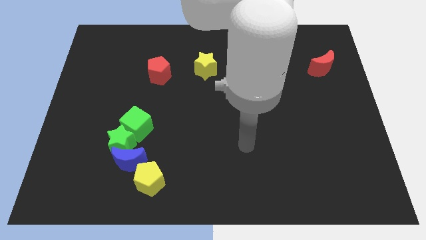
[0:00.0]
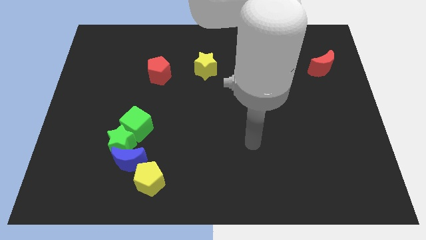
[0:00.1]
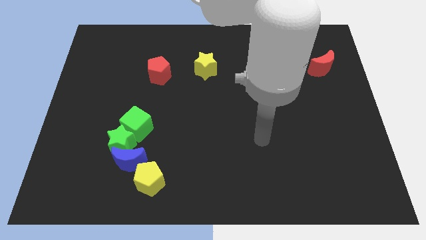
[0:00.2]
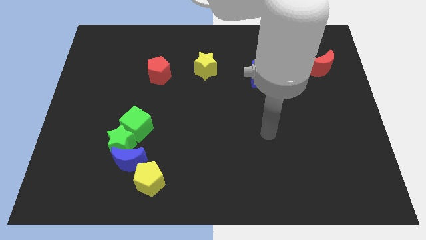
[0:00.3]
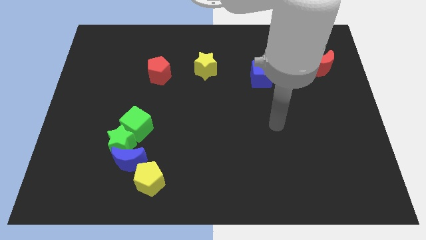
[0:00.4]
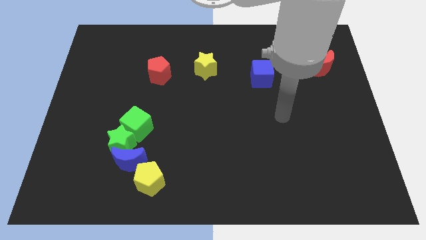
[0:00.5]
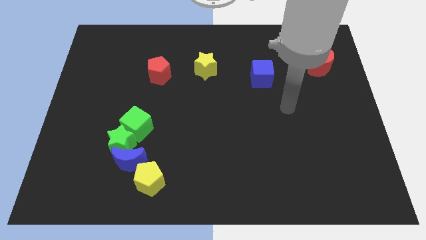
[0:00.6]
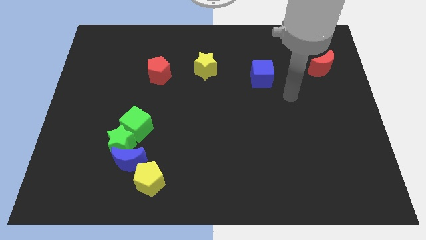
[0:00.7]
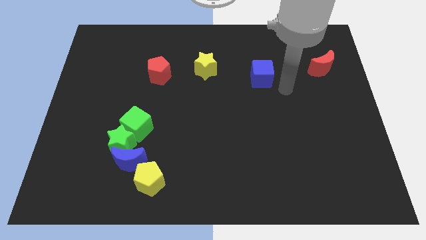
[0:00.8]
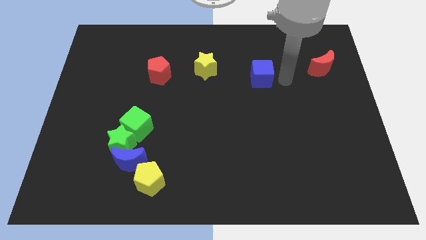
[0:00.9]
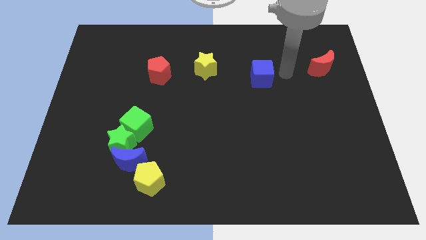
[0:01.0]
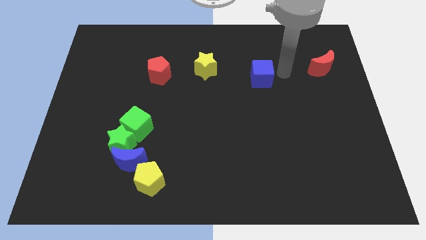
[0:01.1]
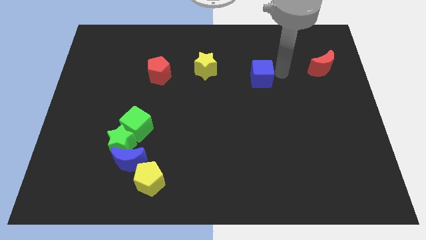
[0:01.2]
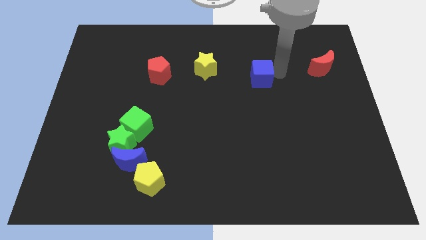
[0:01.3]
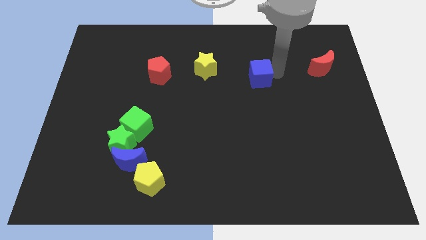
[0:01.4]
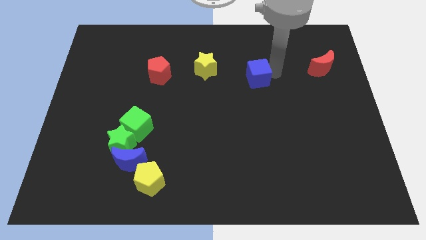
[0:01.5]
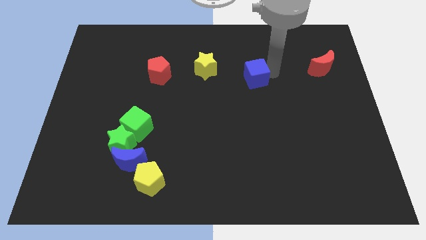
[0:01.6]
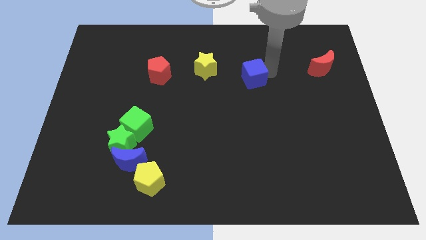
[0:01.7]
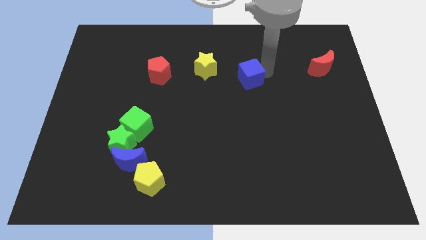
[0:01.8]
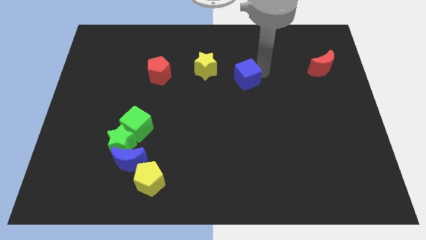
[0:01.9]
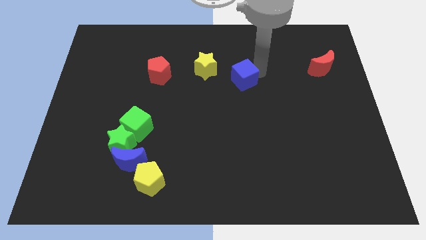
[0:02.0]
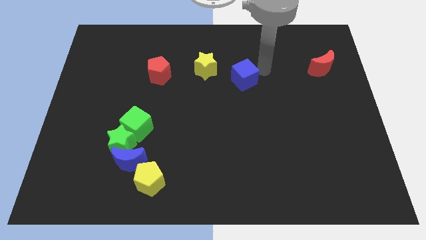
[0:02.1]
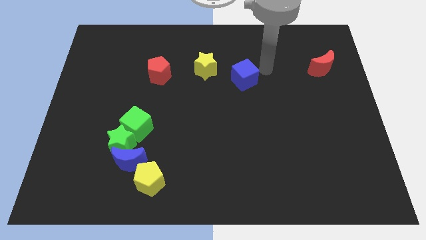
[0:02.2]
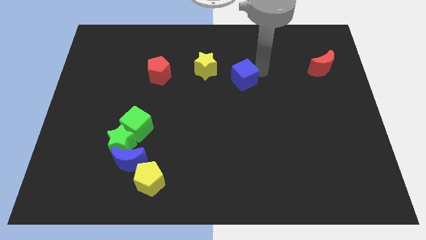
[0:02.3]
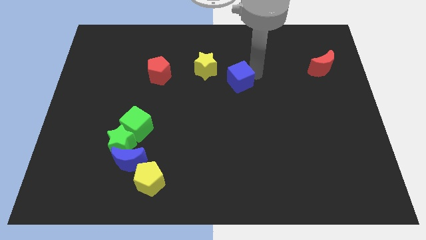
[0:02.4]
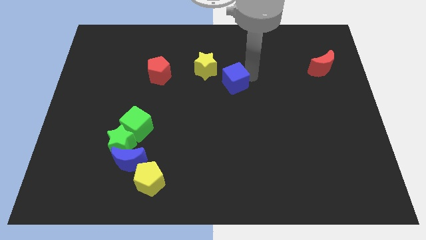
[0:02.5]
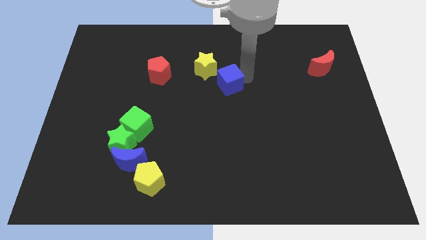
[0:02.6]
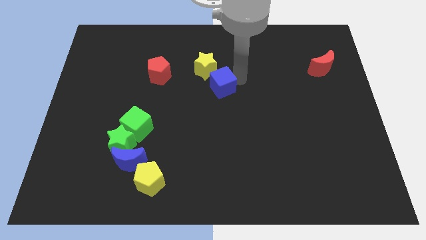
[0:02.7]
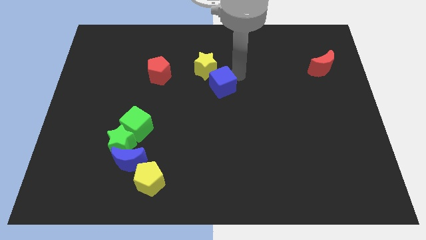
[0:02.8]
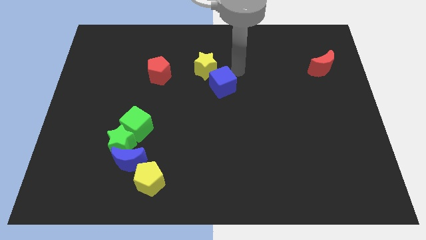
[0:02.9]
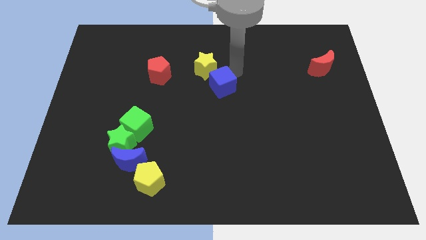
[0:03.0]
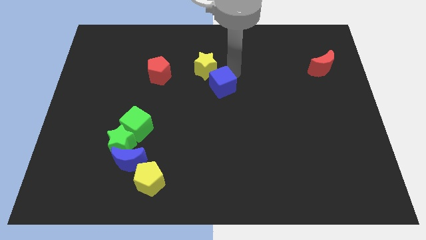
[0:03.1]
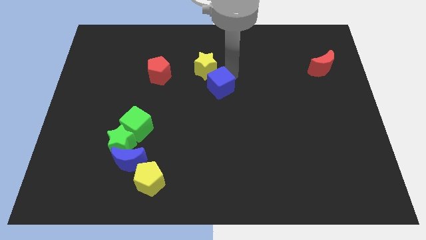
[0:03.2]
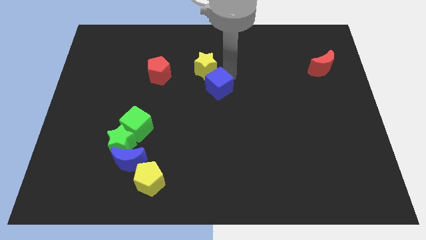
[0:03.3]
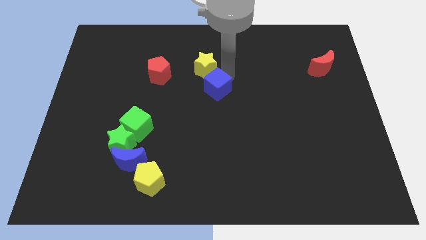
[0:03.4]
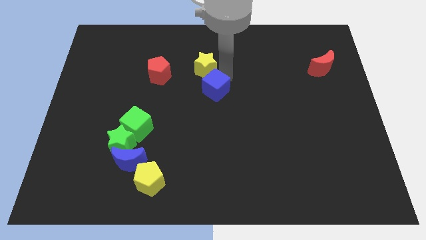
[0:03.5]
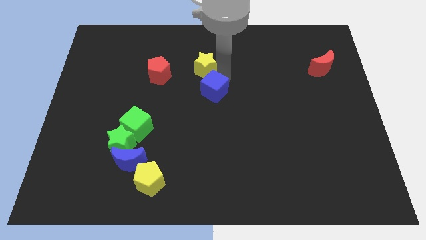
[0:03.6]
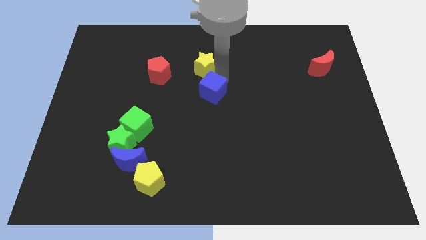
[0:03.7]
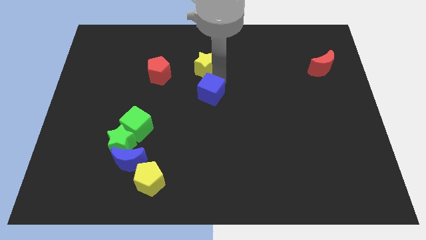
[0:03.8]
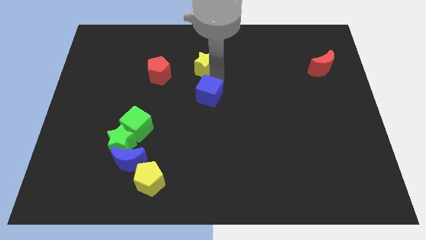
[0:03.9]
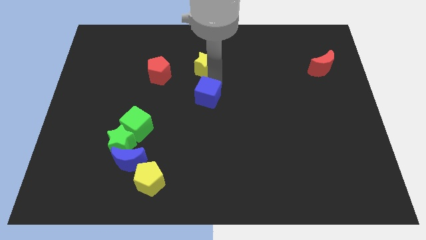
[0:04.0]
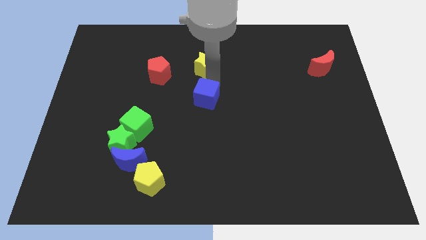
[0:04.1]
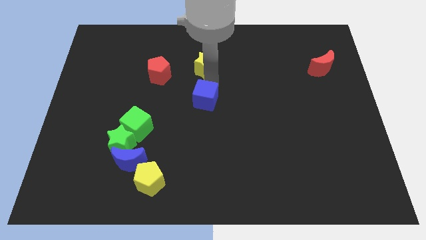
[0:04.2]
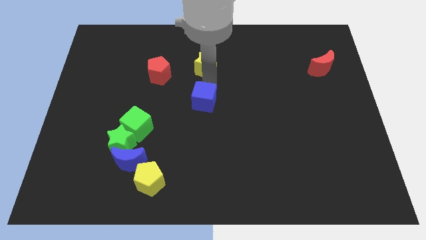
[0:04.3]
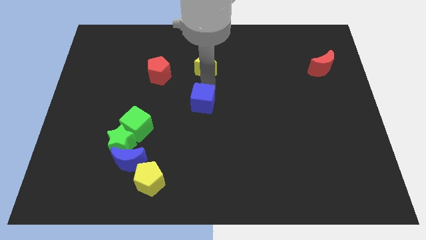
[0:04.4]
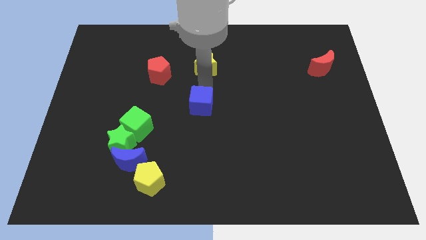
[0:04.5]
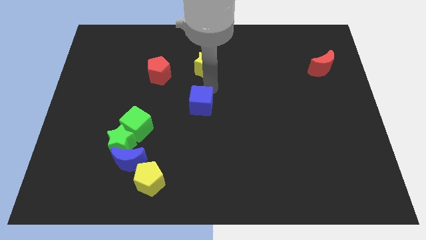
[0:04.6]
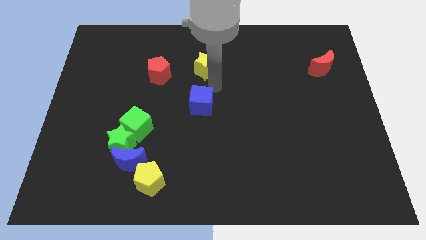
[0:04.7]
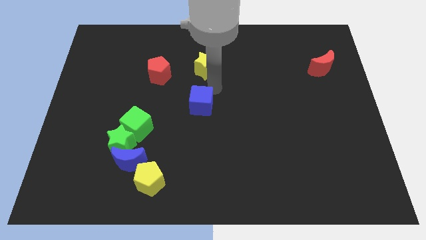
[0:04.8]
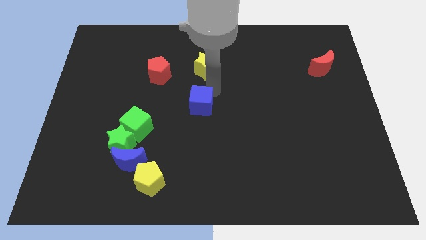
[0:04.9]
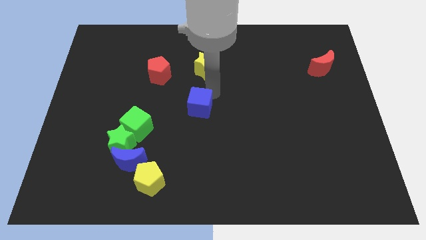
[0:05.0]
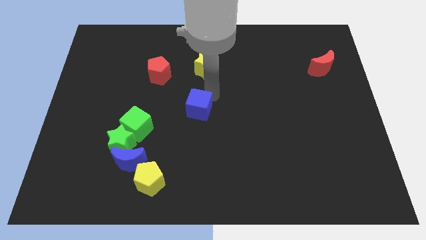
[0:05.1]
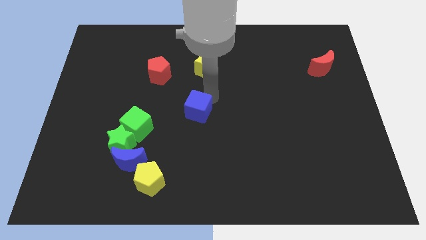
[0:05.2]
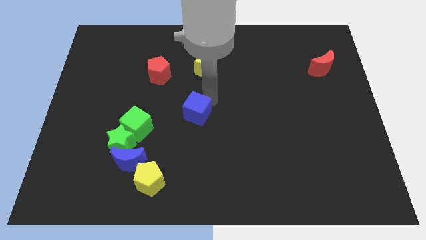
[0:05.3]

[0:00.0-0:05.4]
slide the blue cube to the right side of the green cube

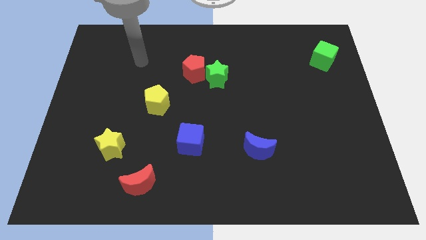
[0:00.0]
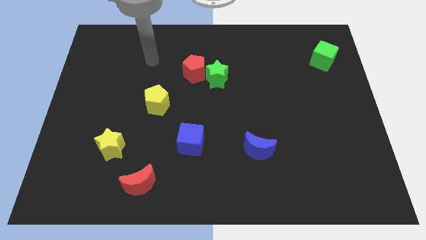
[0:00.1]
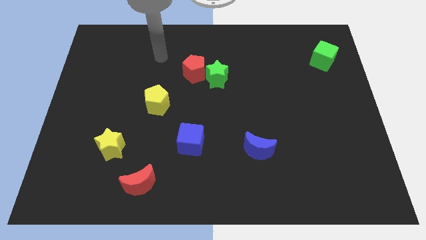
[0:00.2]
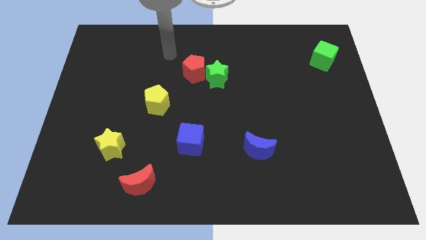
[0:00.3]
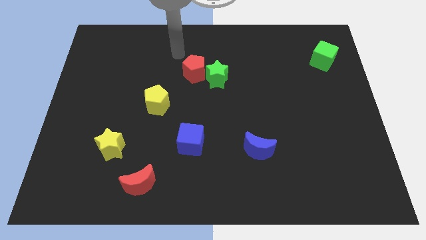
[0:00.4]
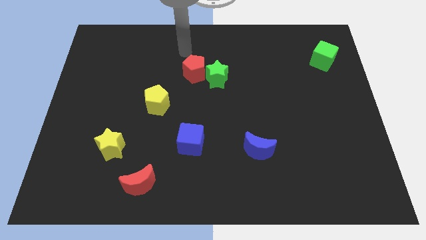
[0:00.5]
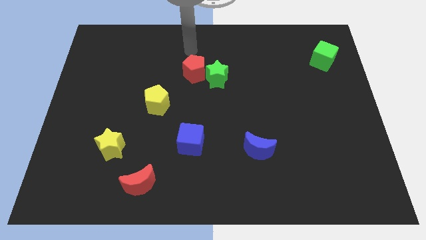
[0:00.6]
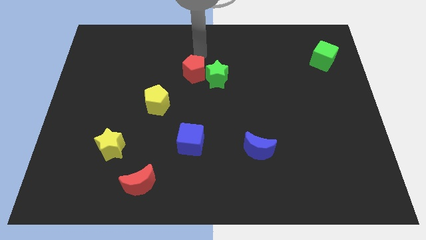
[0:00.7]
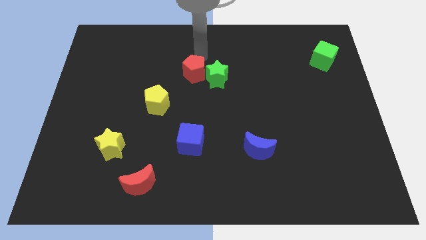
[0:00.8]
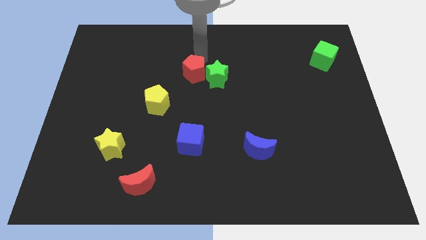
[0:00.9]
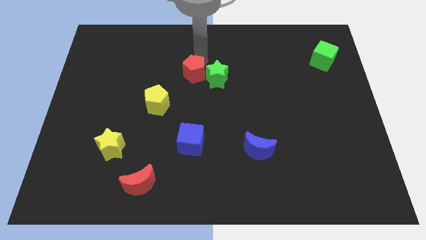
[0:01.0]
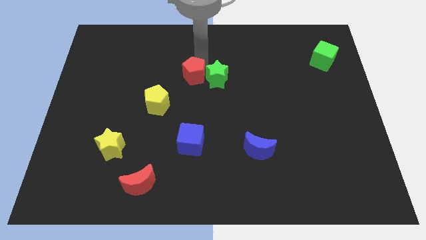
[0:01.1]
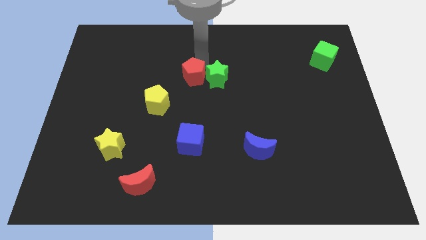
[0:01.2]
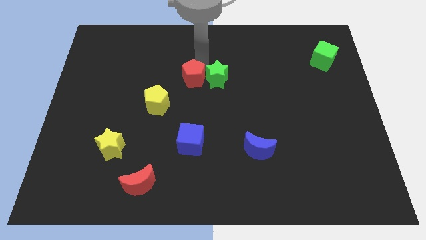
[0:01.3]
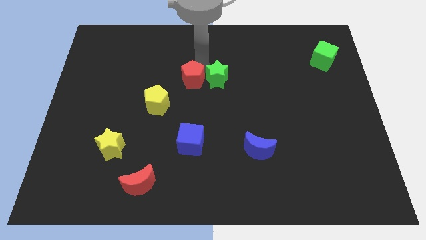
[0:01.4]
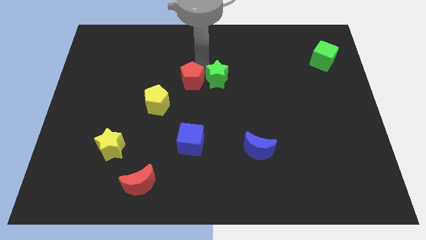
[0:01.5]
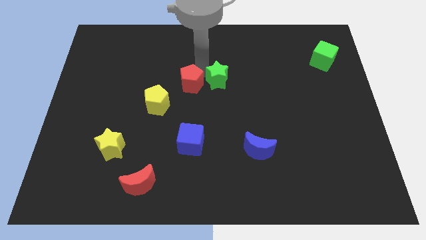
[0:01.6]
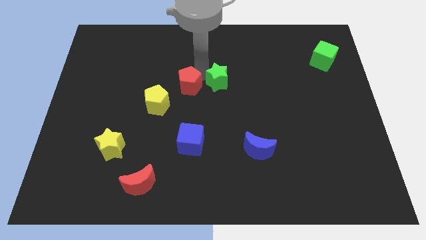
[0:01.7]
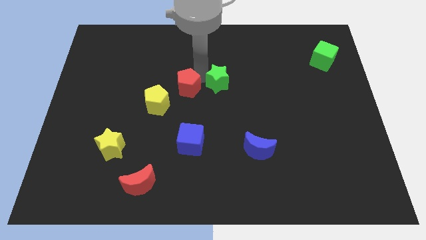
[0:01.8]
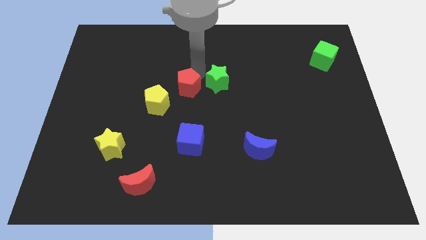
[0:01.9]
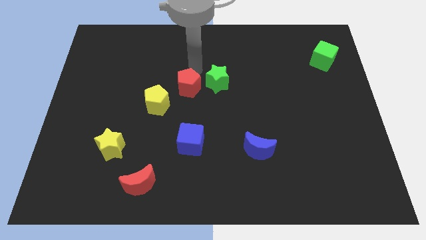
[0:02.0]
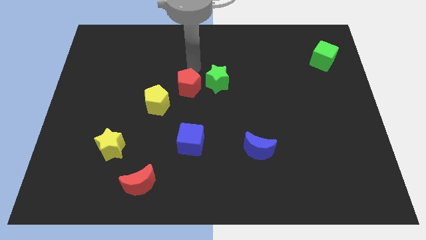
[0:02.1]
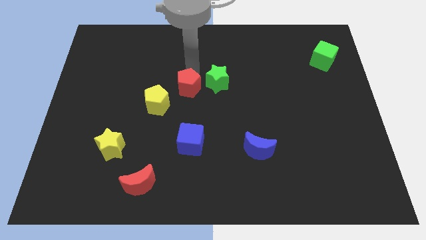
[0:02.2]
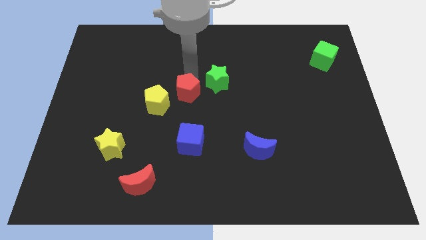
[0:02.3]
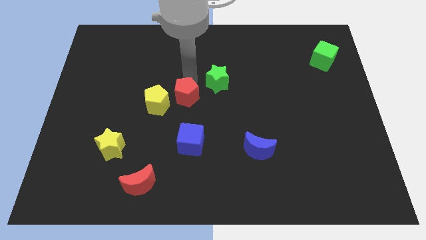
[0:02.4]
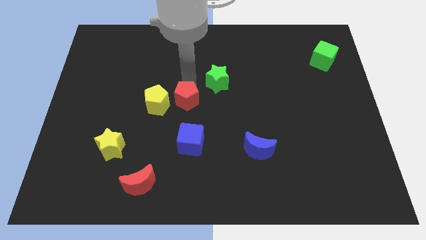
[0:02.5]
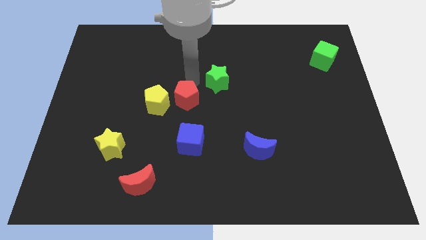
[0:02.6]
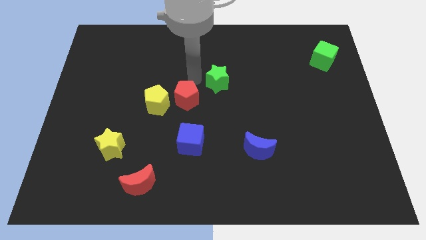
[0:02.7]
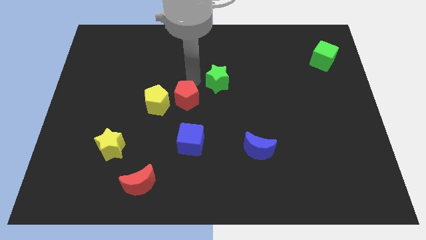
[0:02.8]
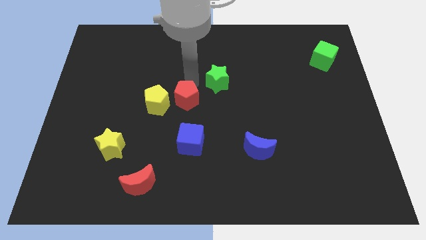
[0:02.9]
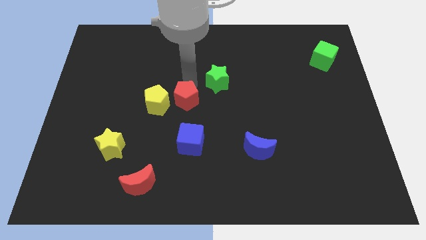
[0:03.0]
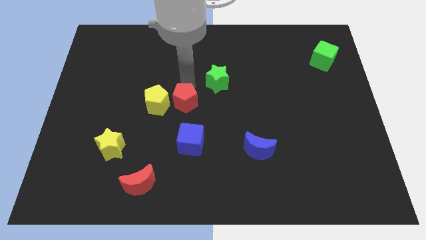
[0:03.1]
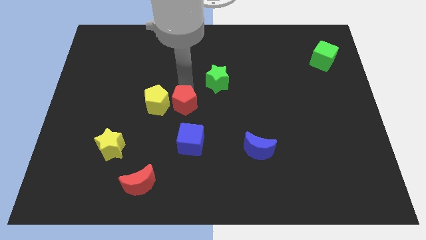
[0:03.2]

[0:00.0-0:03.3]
slide the red pentagon to the bottom right of the yellow pentagon
